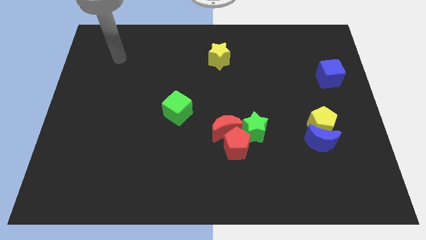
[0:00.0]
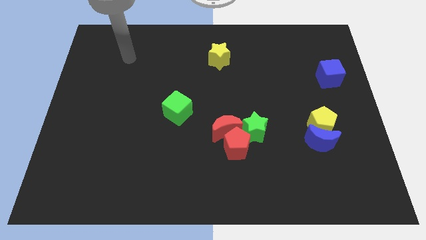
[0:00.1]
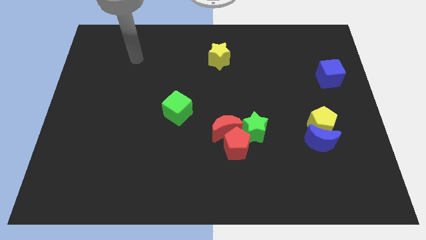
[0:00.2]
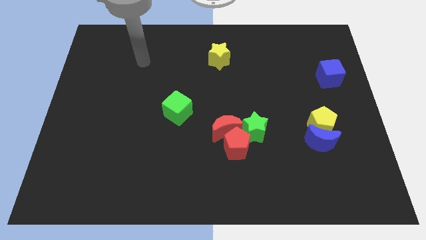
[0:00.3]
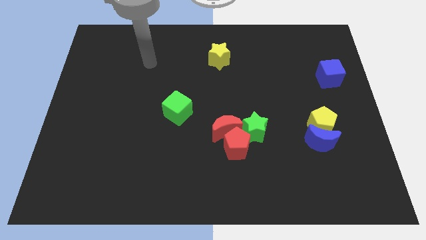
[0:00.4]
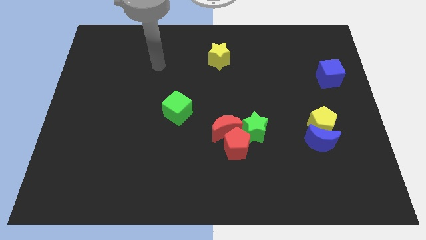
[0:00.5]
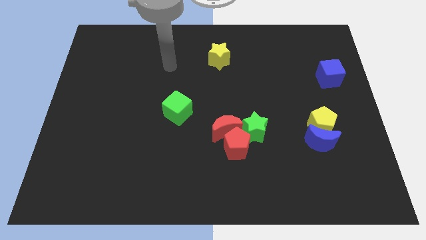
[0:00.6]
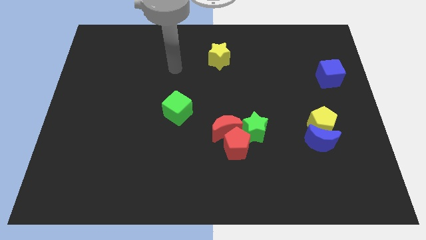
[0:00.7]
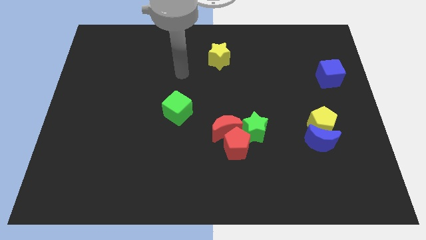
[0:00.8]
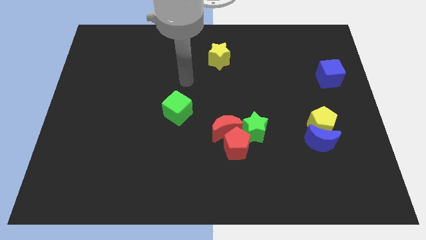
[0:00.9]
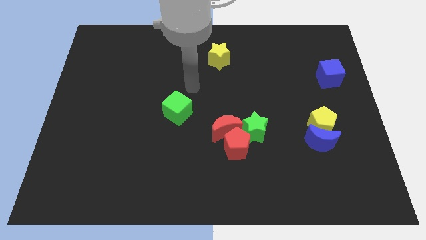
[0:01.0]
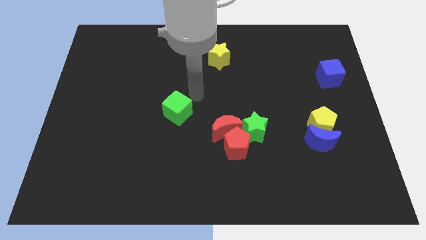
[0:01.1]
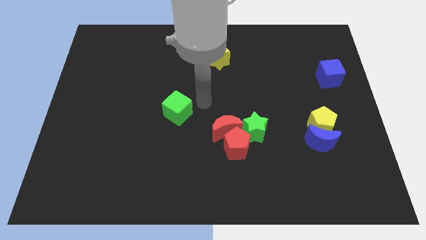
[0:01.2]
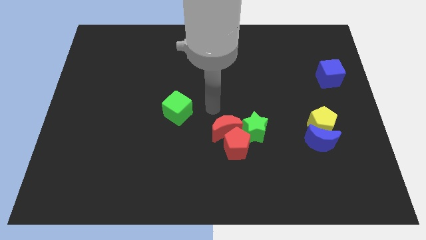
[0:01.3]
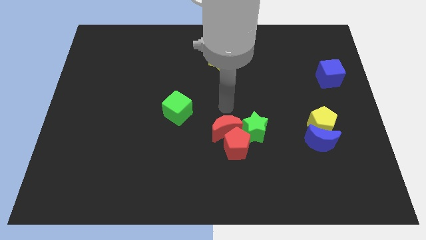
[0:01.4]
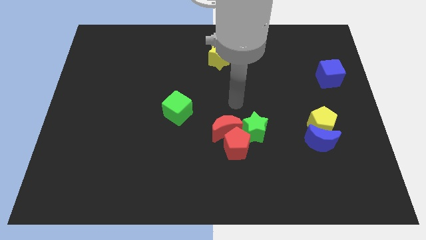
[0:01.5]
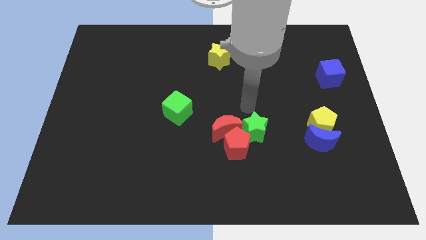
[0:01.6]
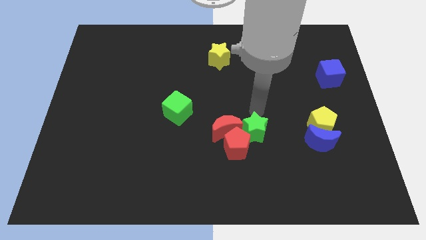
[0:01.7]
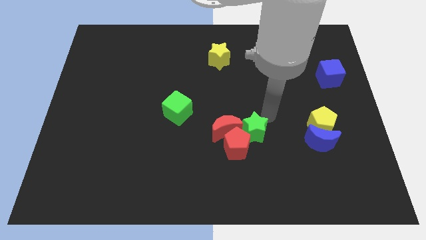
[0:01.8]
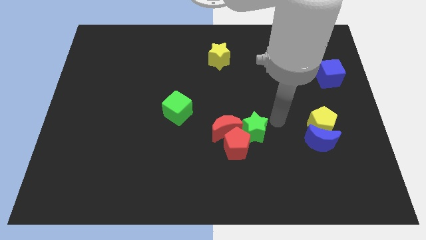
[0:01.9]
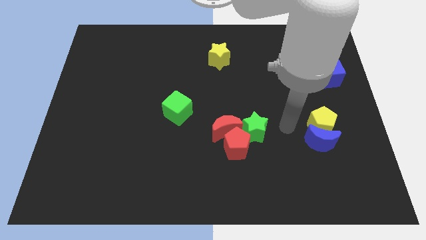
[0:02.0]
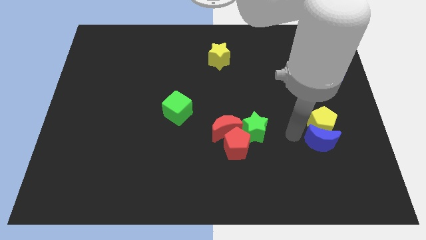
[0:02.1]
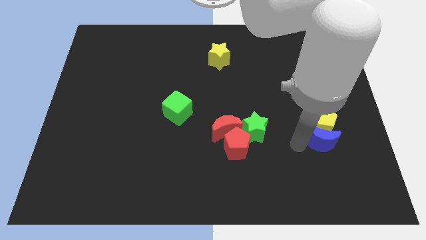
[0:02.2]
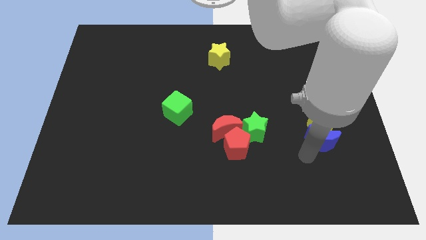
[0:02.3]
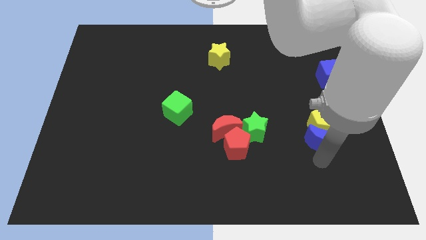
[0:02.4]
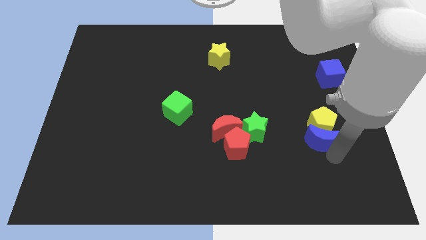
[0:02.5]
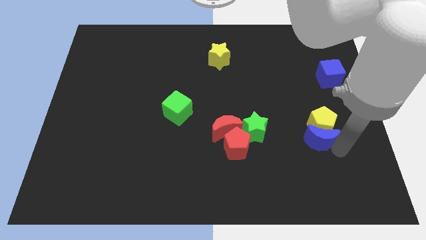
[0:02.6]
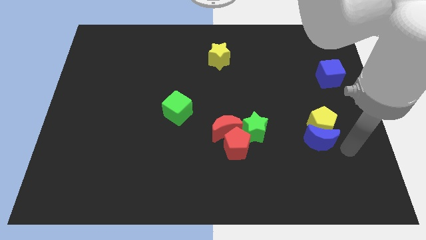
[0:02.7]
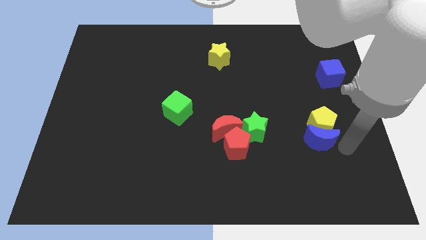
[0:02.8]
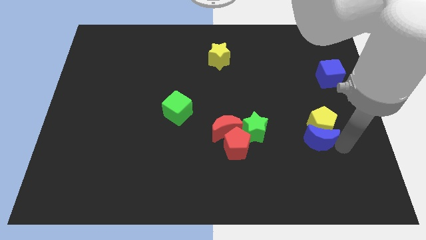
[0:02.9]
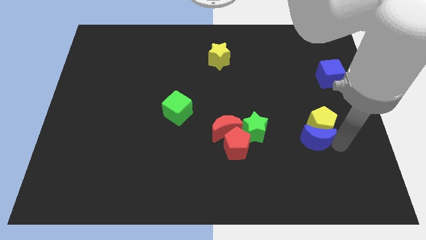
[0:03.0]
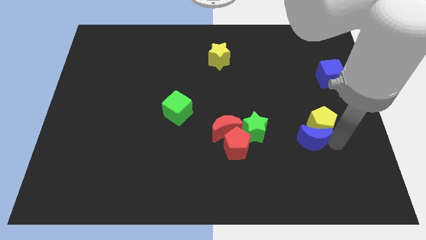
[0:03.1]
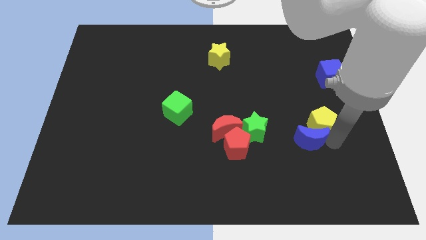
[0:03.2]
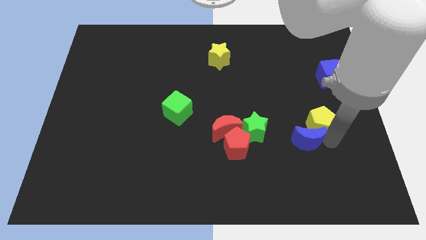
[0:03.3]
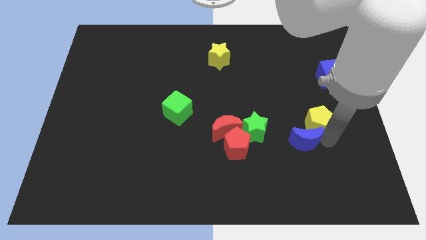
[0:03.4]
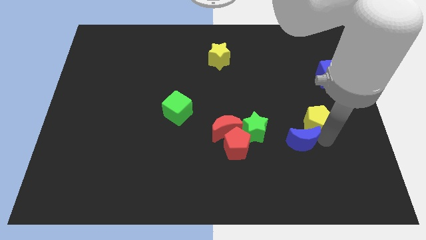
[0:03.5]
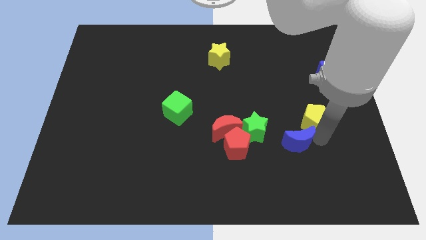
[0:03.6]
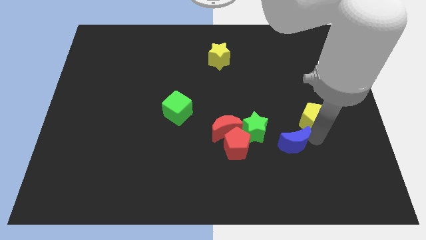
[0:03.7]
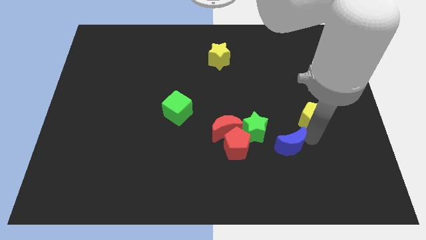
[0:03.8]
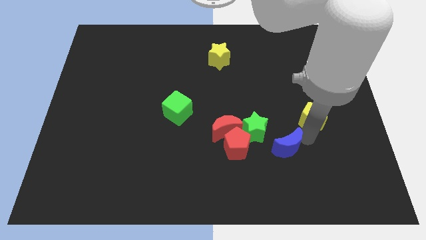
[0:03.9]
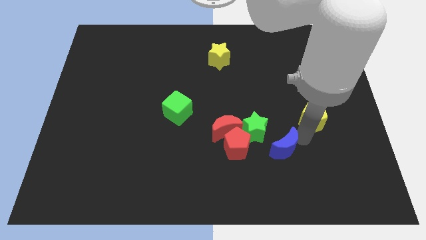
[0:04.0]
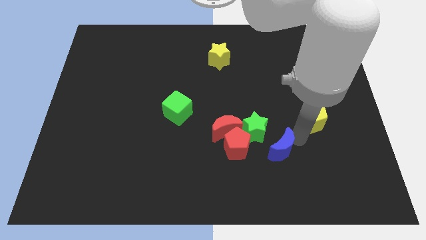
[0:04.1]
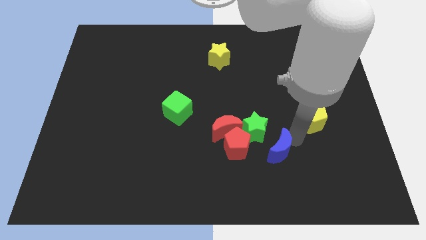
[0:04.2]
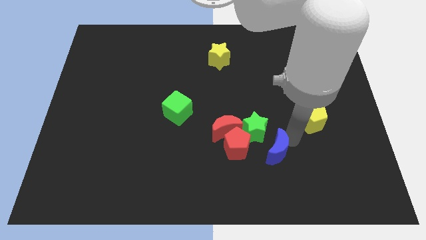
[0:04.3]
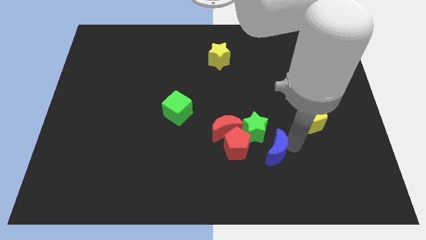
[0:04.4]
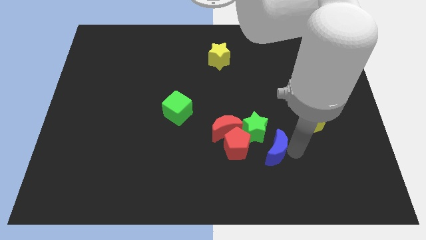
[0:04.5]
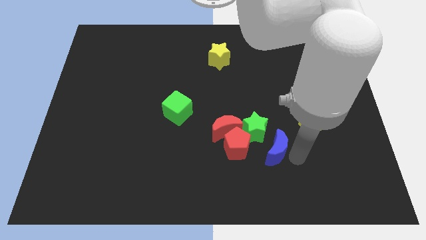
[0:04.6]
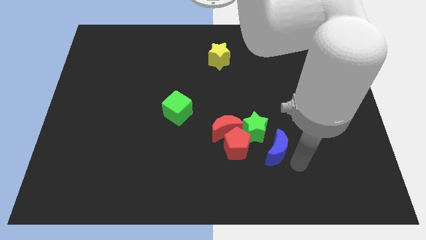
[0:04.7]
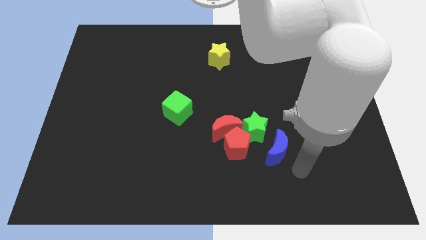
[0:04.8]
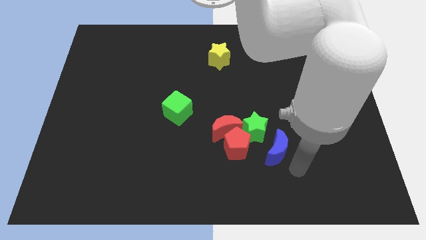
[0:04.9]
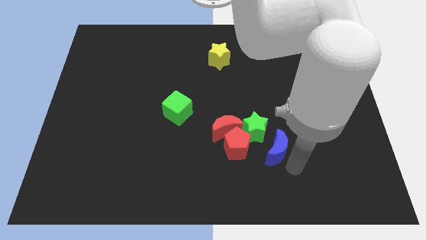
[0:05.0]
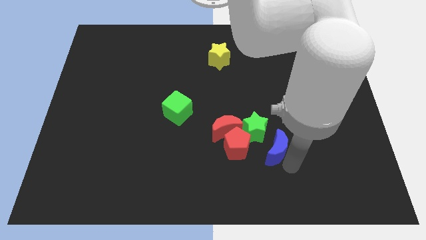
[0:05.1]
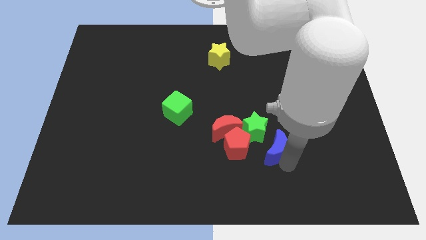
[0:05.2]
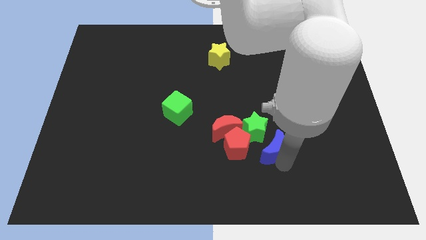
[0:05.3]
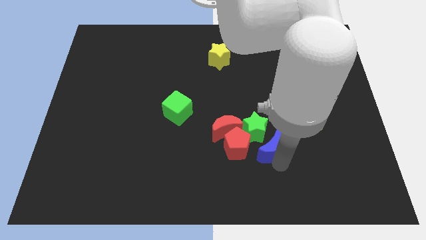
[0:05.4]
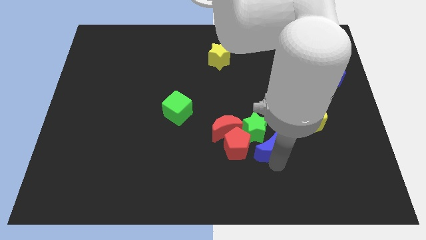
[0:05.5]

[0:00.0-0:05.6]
put the blue moon next to the green star

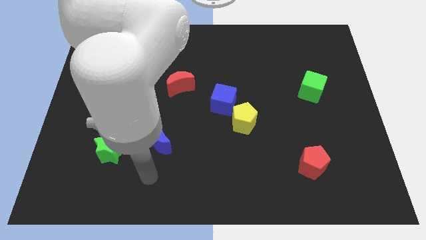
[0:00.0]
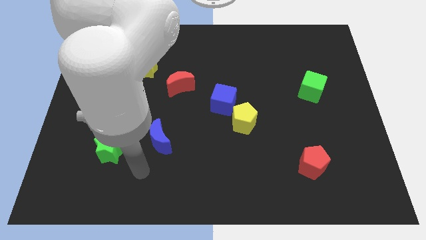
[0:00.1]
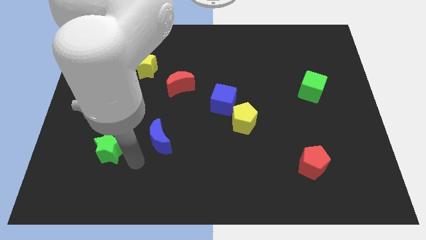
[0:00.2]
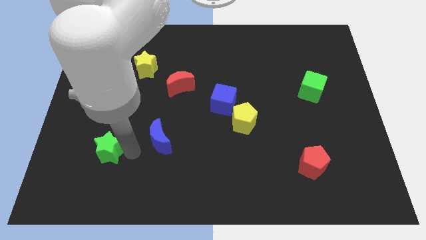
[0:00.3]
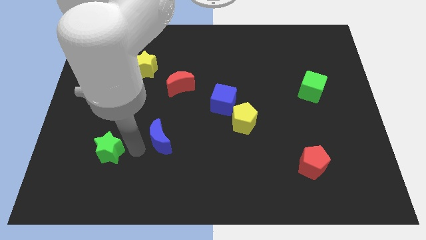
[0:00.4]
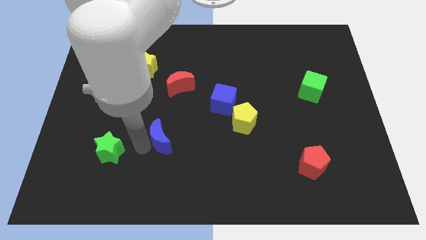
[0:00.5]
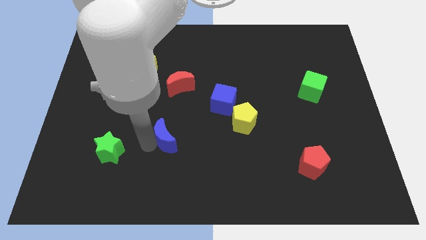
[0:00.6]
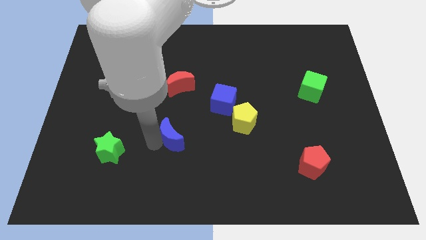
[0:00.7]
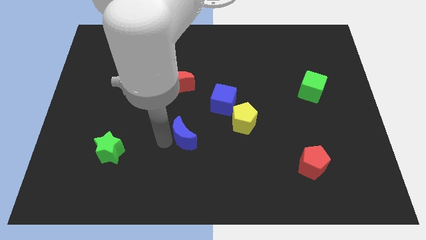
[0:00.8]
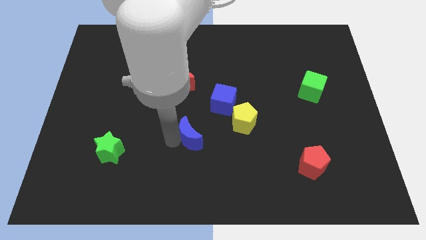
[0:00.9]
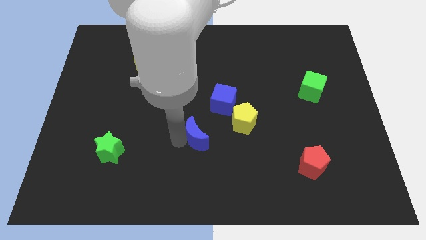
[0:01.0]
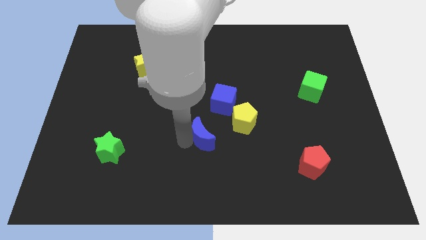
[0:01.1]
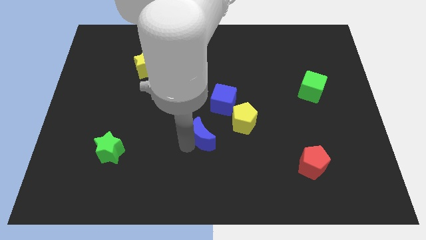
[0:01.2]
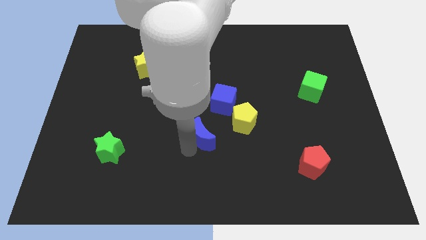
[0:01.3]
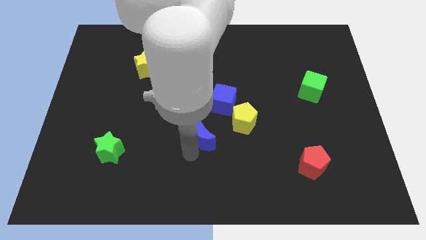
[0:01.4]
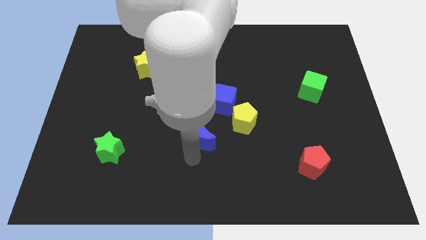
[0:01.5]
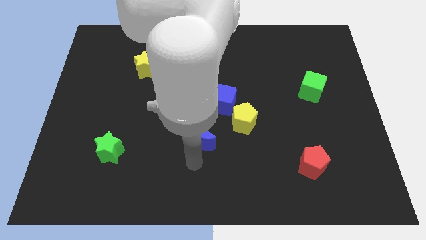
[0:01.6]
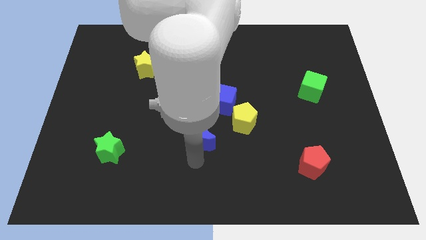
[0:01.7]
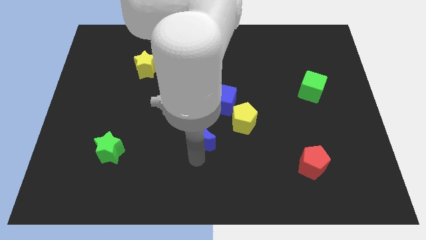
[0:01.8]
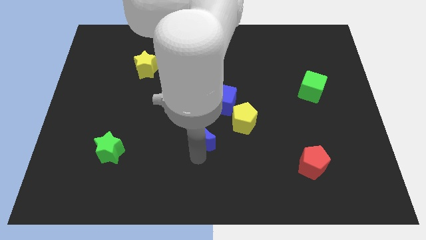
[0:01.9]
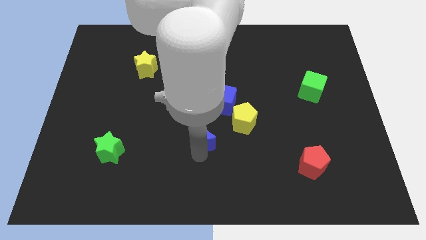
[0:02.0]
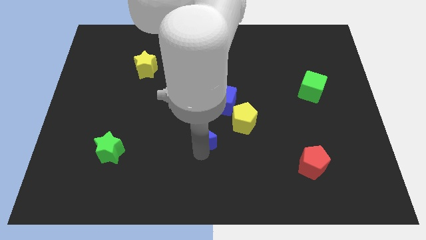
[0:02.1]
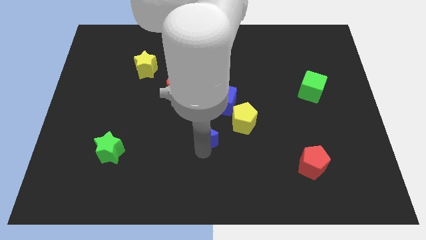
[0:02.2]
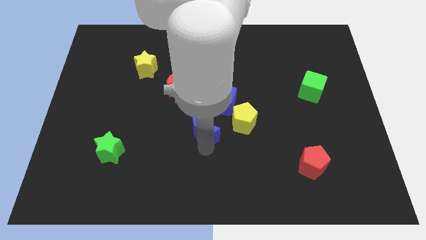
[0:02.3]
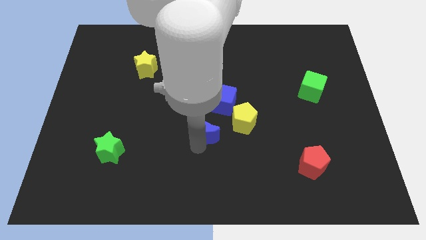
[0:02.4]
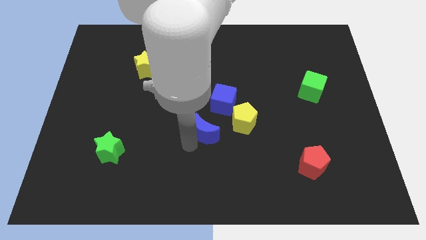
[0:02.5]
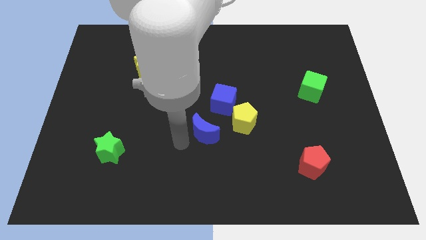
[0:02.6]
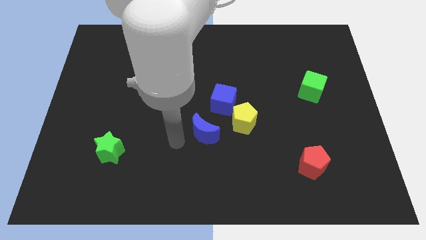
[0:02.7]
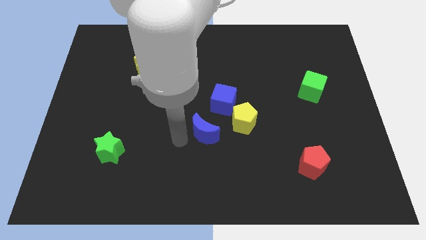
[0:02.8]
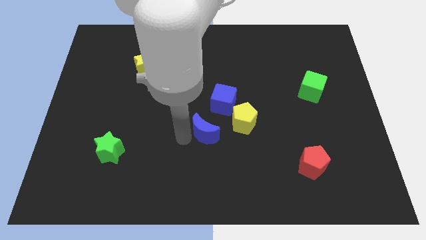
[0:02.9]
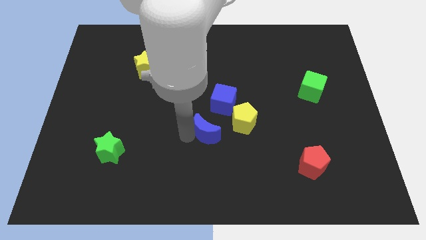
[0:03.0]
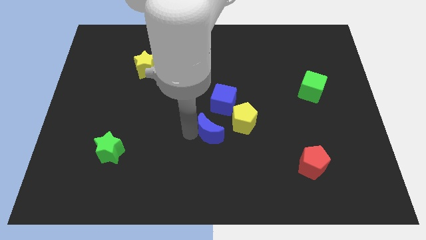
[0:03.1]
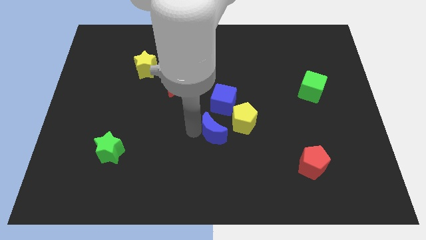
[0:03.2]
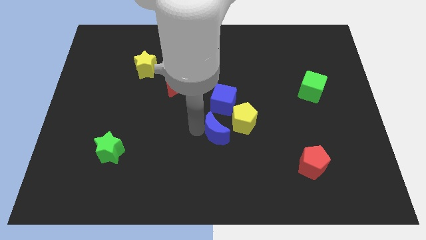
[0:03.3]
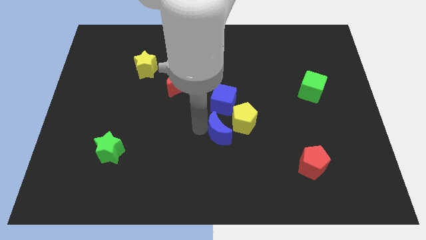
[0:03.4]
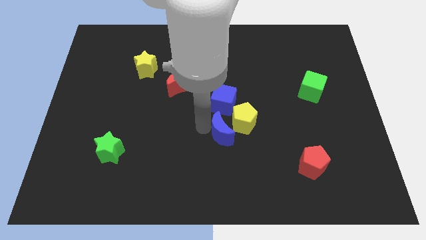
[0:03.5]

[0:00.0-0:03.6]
slide the blue moon close to the yellow pentagon
